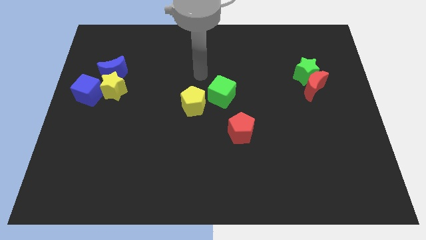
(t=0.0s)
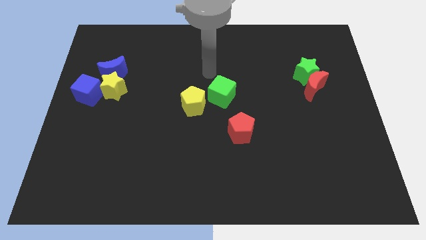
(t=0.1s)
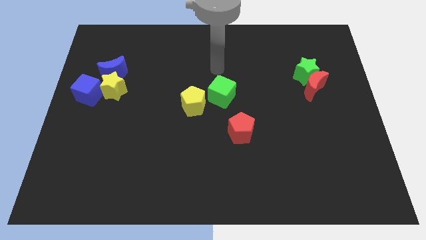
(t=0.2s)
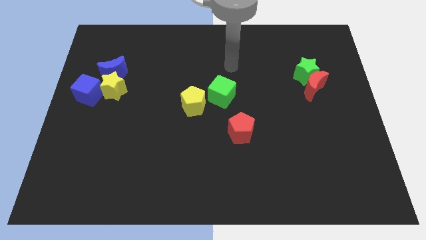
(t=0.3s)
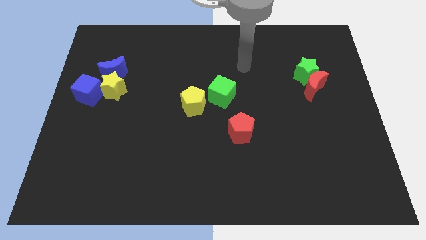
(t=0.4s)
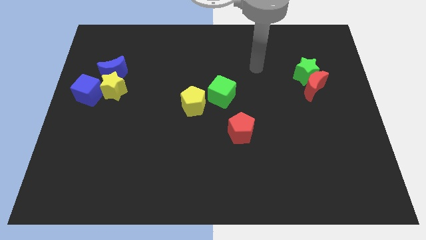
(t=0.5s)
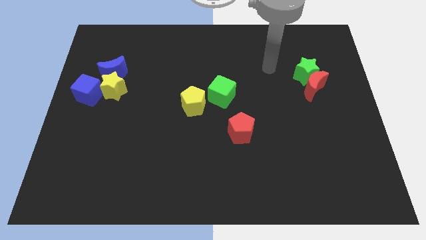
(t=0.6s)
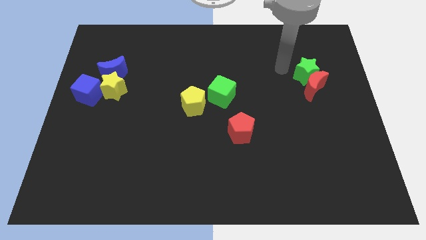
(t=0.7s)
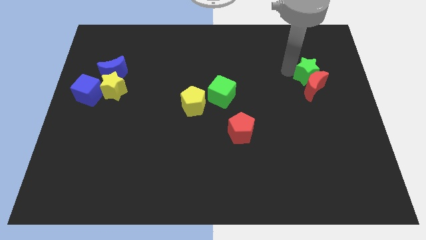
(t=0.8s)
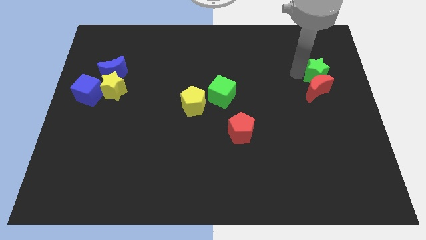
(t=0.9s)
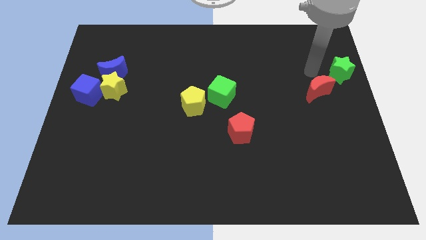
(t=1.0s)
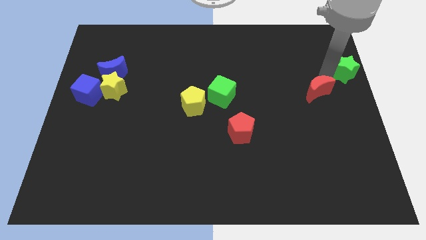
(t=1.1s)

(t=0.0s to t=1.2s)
move the red moon away from the green star

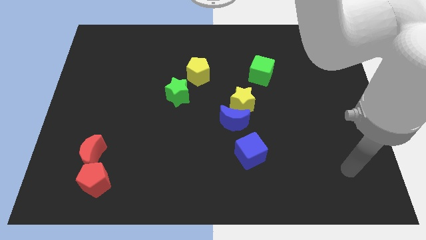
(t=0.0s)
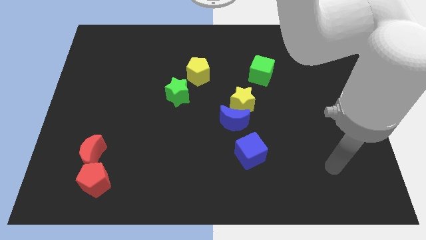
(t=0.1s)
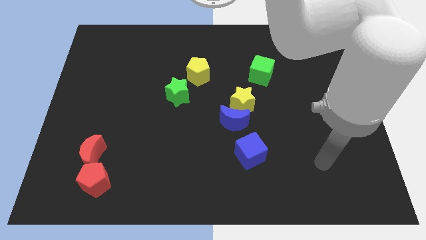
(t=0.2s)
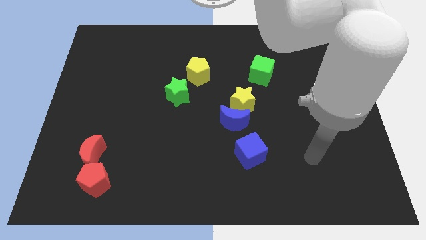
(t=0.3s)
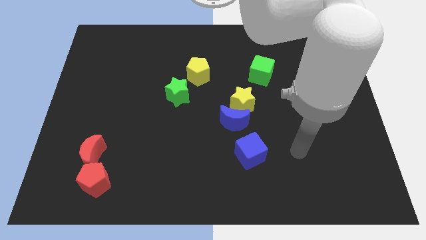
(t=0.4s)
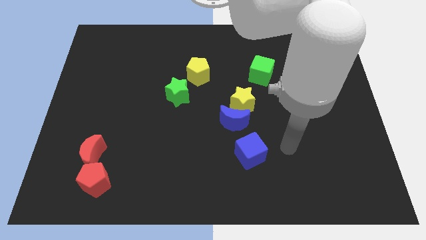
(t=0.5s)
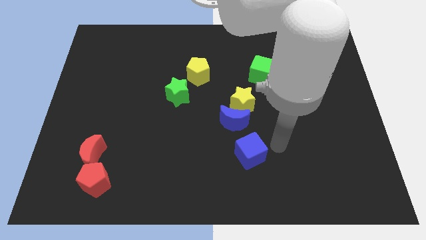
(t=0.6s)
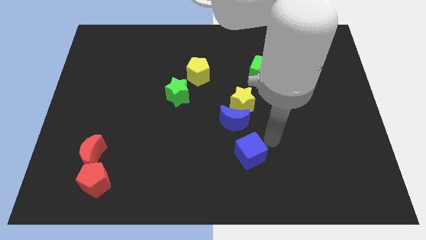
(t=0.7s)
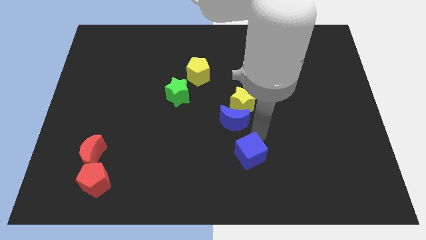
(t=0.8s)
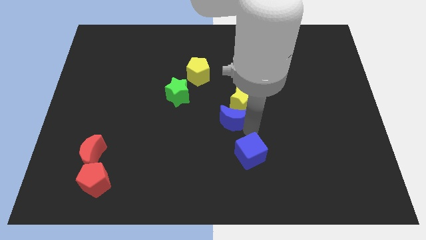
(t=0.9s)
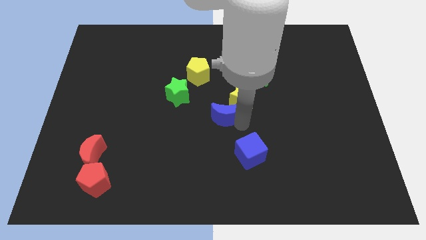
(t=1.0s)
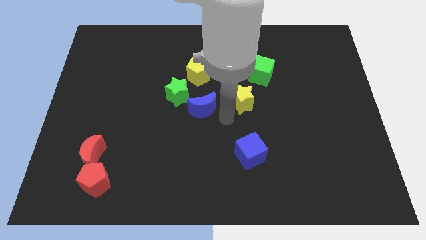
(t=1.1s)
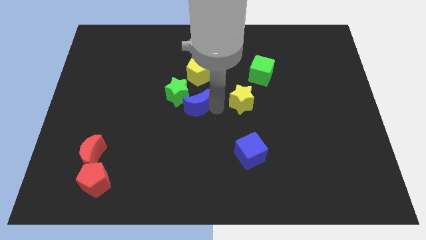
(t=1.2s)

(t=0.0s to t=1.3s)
separate the yellow star from the blue moon

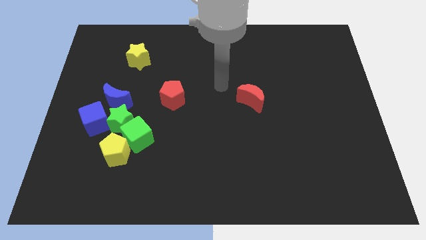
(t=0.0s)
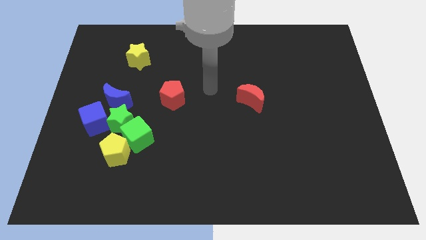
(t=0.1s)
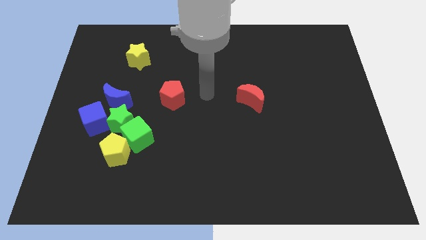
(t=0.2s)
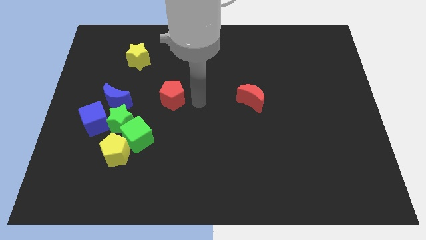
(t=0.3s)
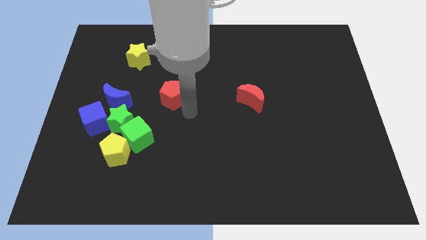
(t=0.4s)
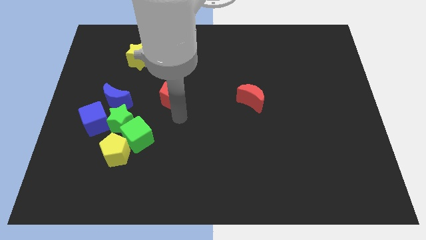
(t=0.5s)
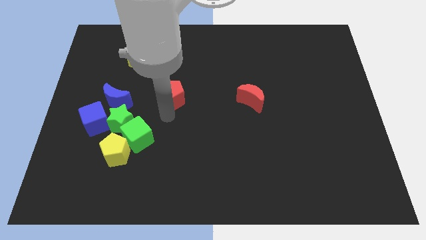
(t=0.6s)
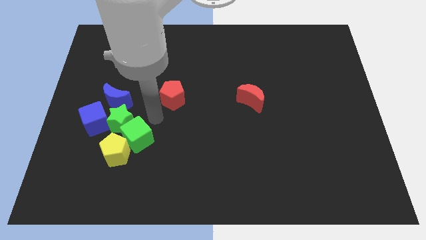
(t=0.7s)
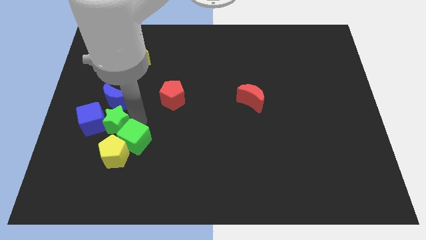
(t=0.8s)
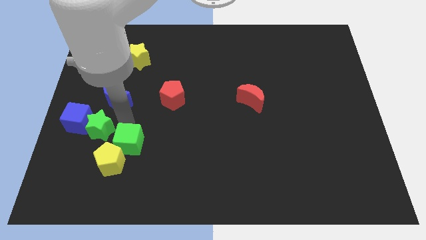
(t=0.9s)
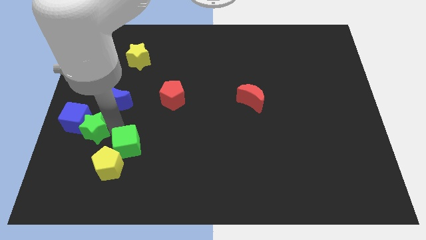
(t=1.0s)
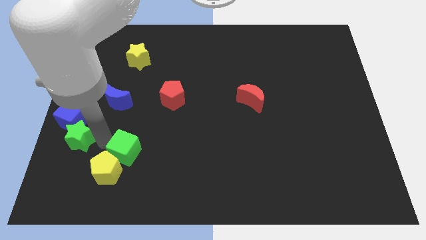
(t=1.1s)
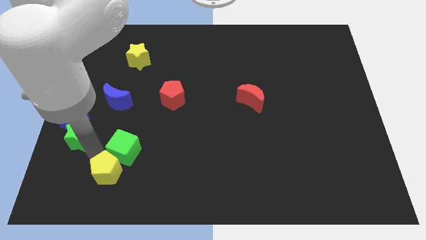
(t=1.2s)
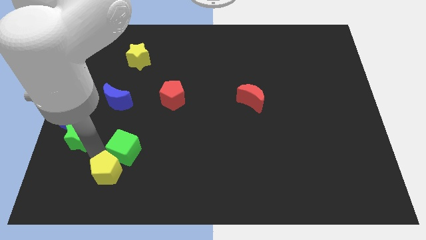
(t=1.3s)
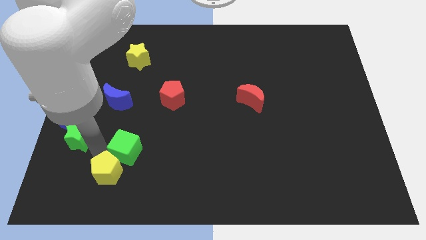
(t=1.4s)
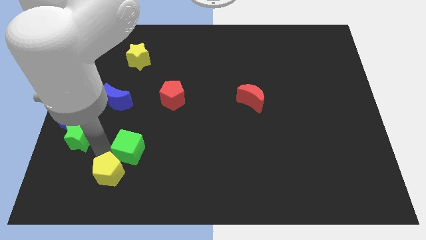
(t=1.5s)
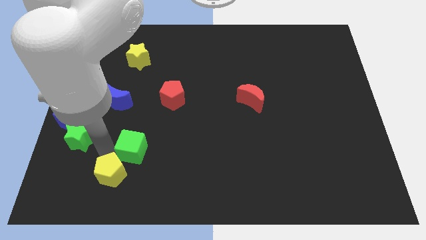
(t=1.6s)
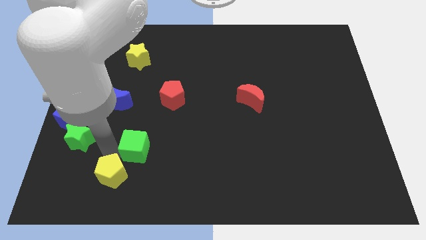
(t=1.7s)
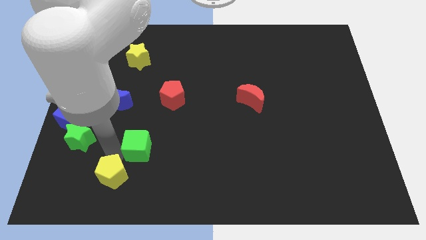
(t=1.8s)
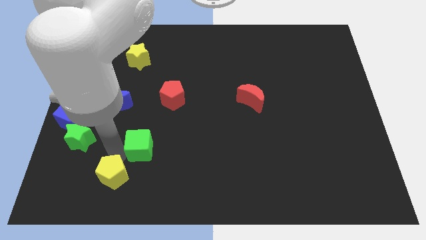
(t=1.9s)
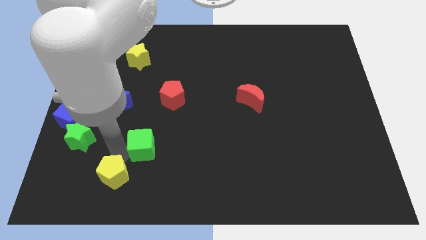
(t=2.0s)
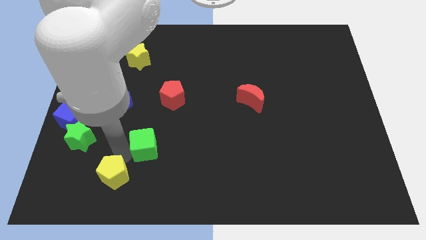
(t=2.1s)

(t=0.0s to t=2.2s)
separate the green cube from the yellow pentagon and green star

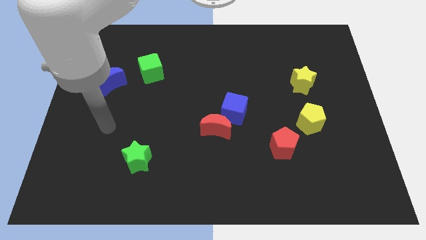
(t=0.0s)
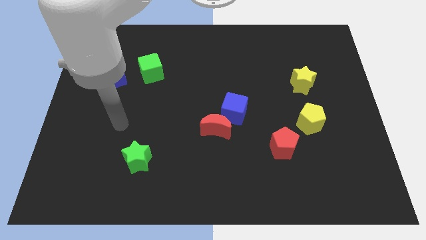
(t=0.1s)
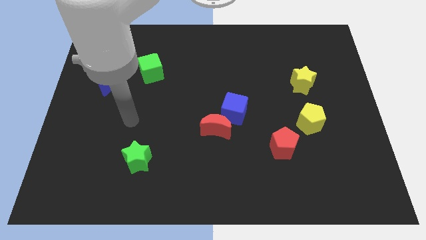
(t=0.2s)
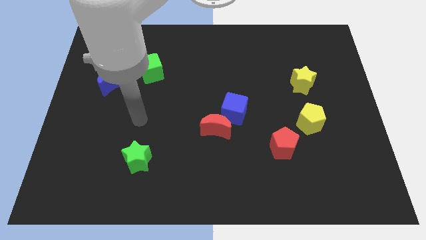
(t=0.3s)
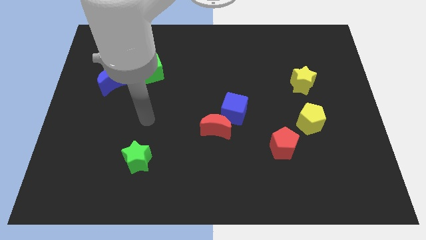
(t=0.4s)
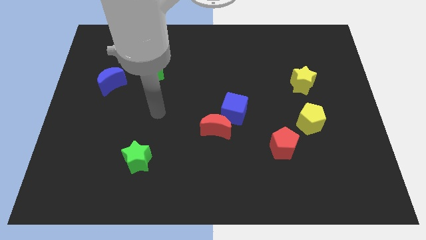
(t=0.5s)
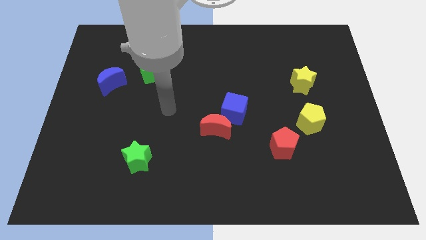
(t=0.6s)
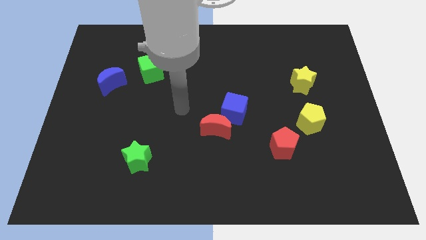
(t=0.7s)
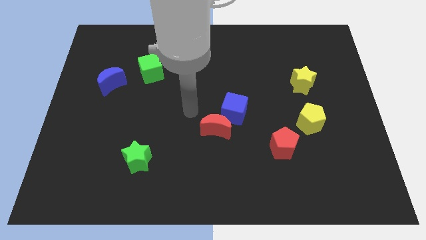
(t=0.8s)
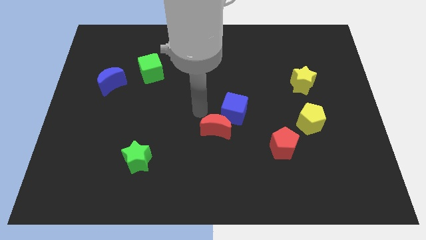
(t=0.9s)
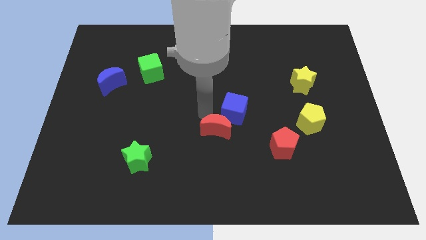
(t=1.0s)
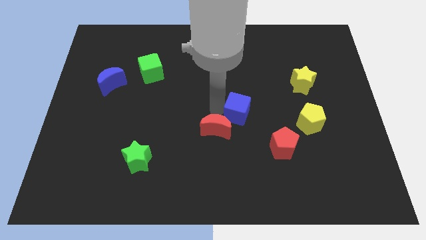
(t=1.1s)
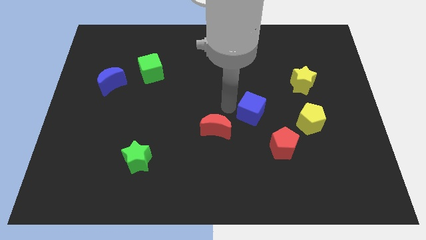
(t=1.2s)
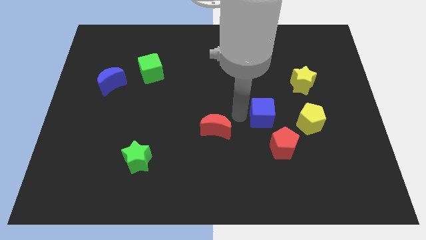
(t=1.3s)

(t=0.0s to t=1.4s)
separate the red moon from the blue cube

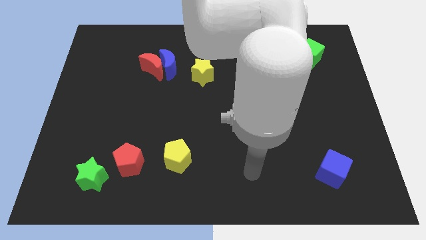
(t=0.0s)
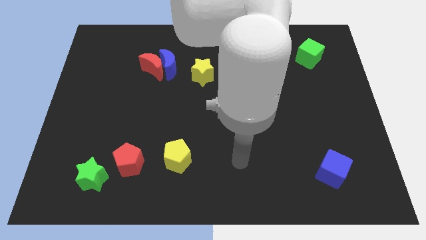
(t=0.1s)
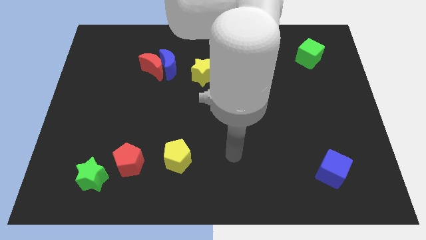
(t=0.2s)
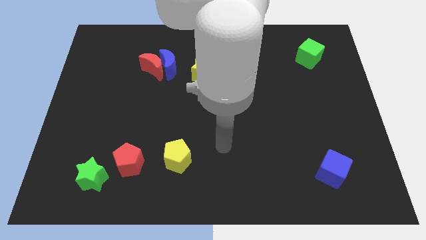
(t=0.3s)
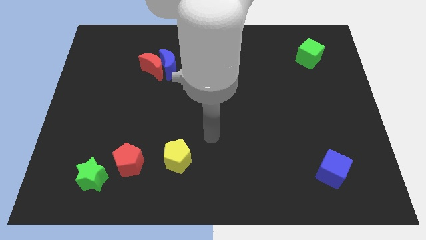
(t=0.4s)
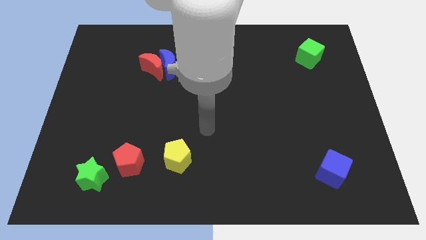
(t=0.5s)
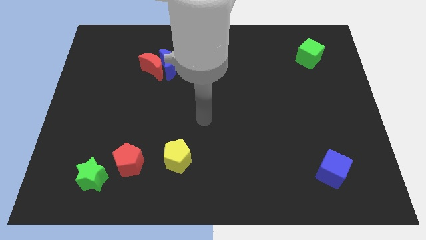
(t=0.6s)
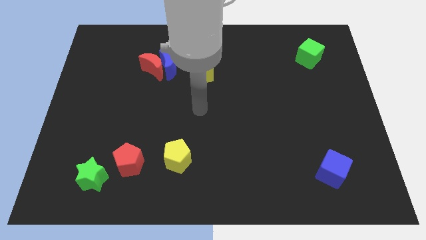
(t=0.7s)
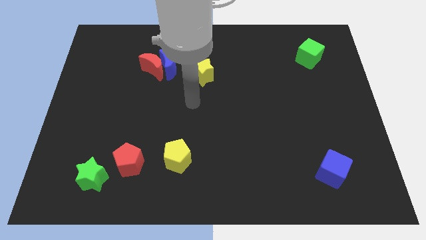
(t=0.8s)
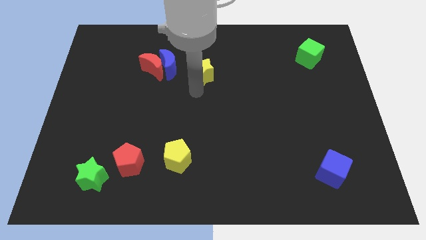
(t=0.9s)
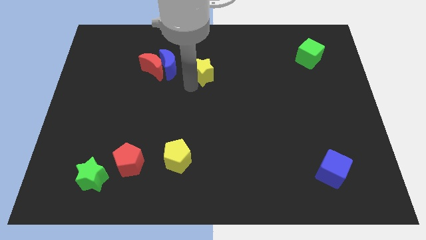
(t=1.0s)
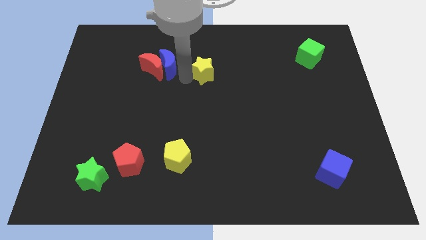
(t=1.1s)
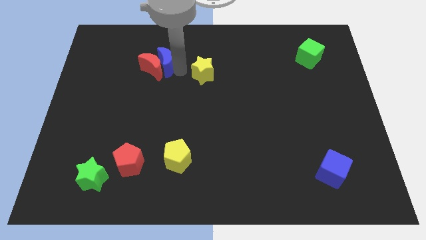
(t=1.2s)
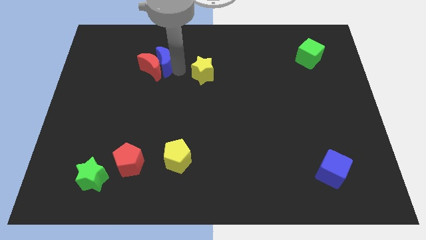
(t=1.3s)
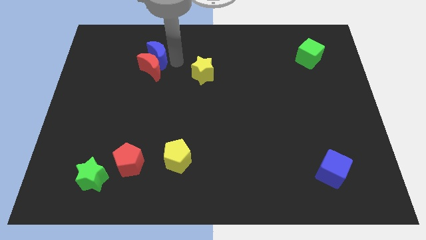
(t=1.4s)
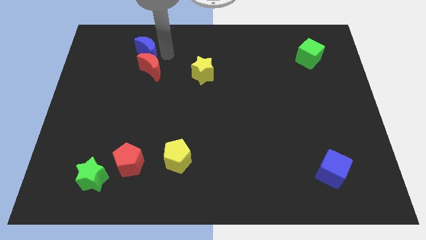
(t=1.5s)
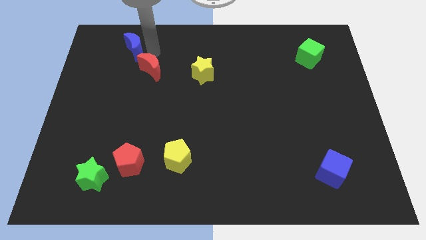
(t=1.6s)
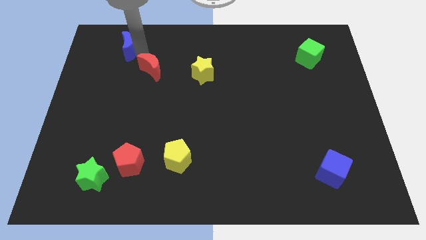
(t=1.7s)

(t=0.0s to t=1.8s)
move the red moon away from the blue moon

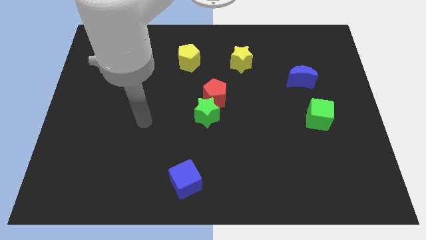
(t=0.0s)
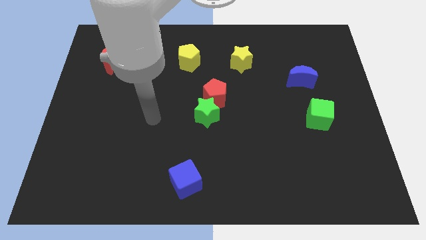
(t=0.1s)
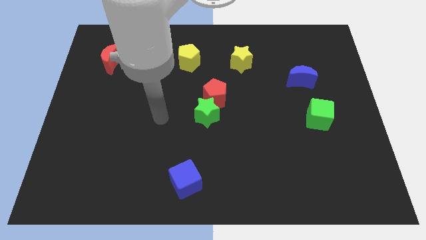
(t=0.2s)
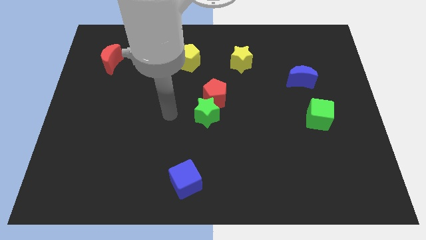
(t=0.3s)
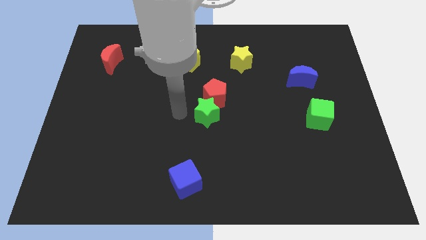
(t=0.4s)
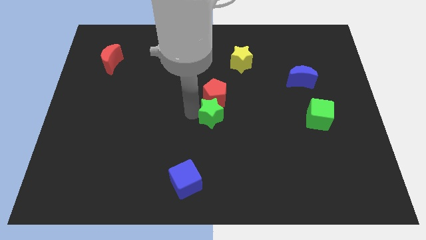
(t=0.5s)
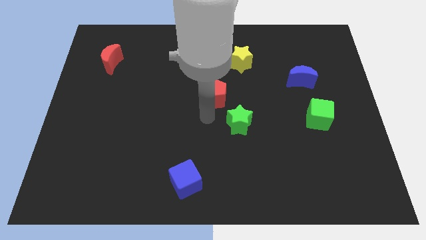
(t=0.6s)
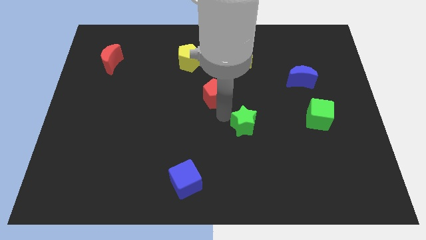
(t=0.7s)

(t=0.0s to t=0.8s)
pull the red pentagon apart from the green star

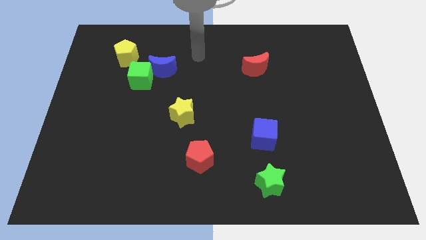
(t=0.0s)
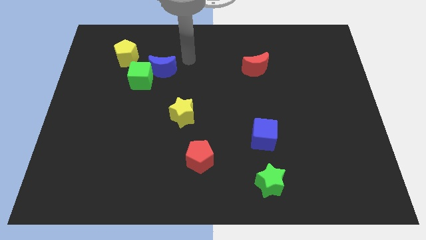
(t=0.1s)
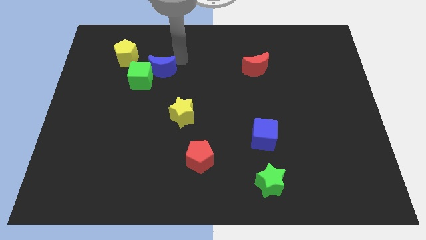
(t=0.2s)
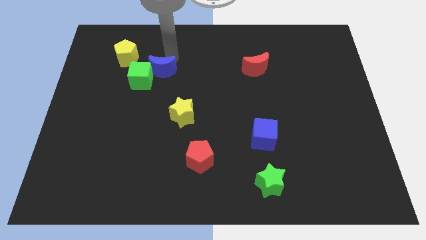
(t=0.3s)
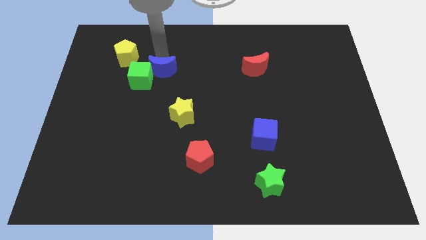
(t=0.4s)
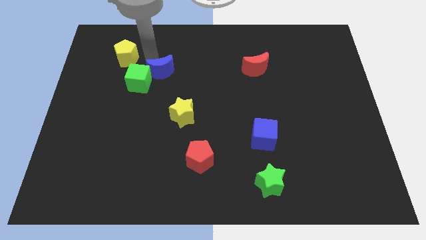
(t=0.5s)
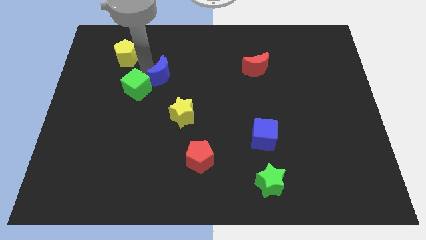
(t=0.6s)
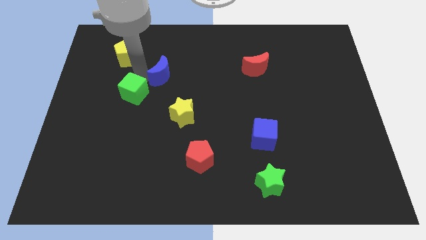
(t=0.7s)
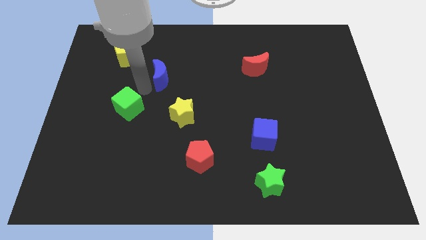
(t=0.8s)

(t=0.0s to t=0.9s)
move the blue moon away from the green cube
